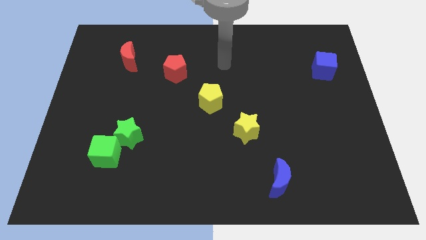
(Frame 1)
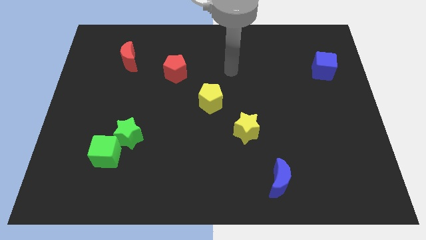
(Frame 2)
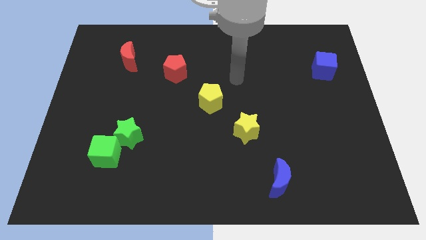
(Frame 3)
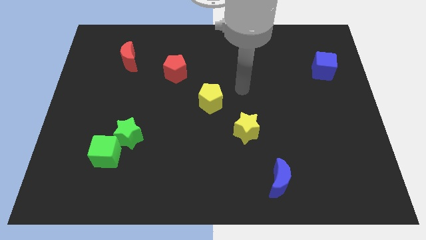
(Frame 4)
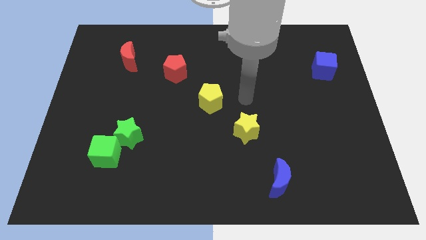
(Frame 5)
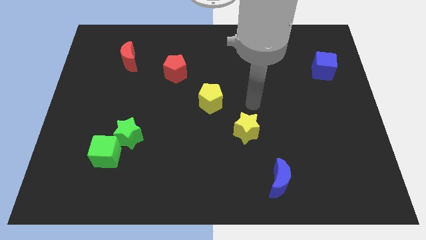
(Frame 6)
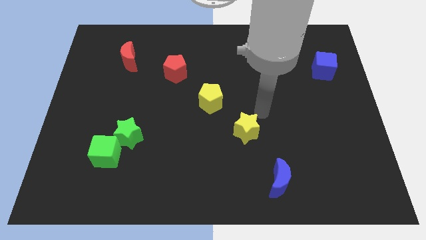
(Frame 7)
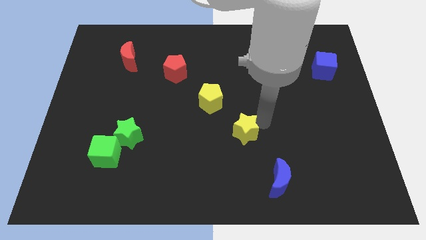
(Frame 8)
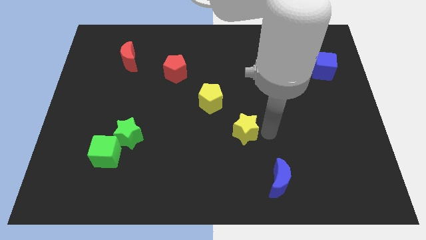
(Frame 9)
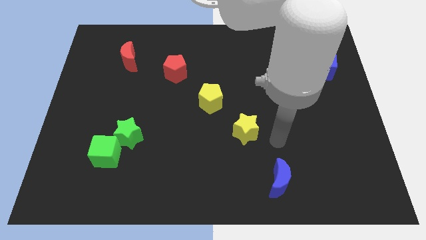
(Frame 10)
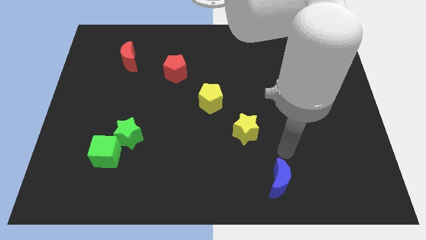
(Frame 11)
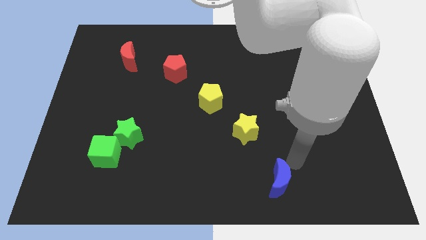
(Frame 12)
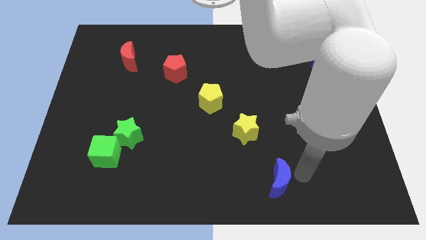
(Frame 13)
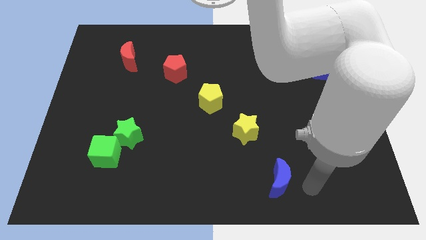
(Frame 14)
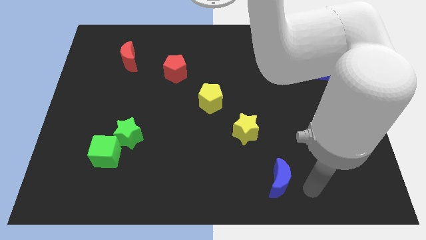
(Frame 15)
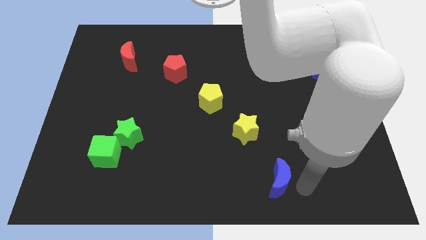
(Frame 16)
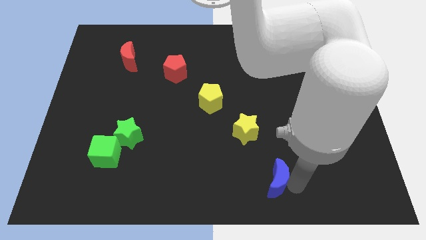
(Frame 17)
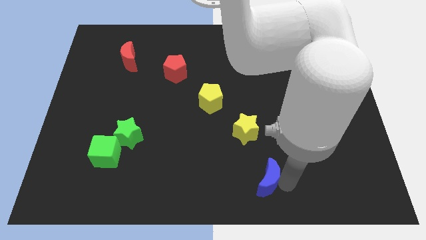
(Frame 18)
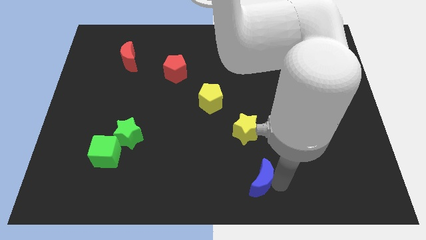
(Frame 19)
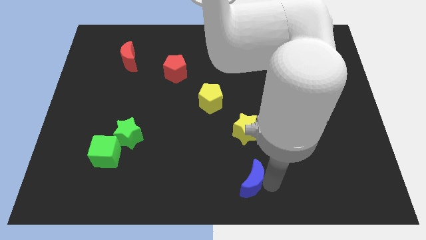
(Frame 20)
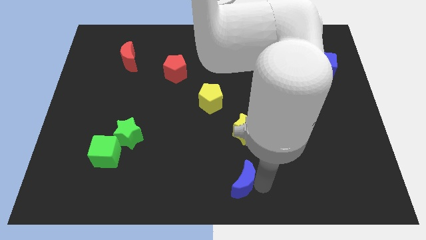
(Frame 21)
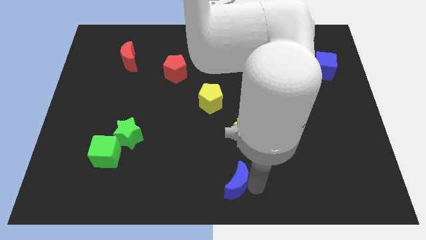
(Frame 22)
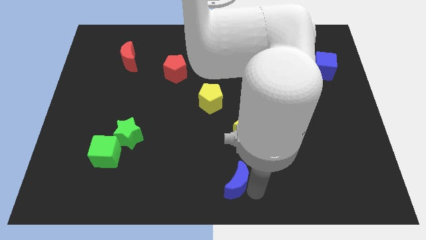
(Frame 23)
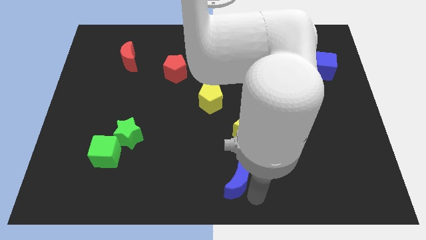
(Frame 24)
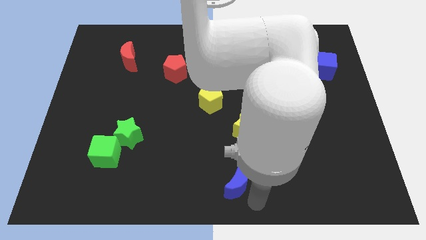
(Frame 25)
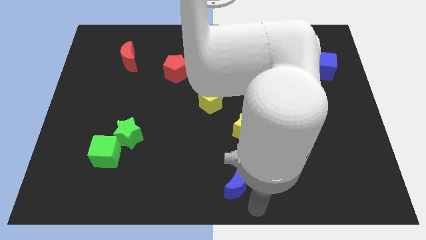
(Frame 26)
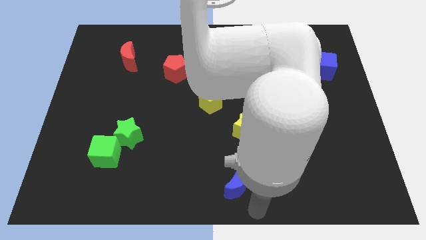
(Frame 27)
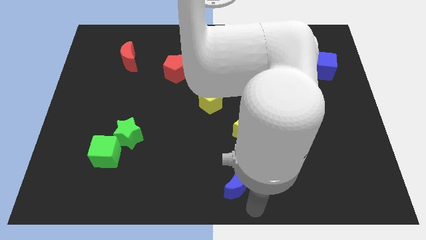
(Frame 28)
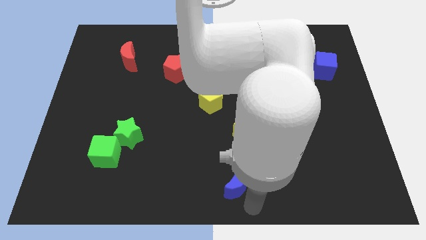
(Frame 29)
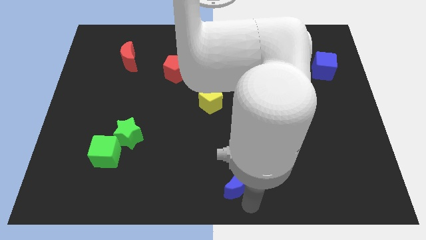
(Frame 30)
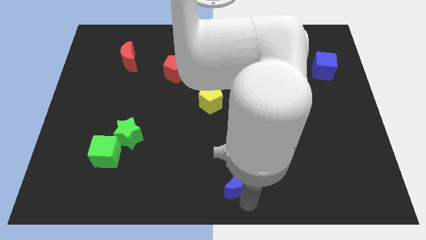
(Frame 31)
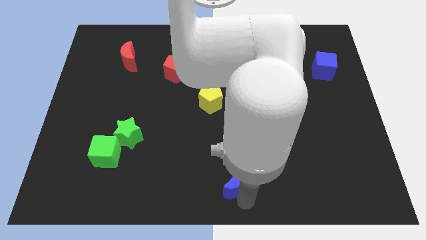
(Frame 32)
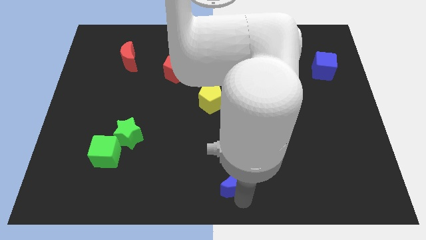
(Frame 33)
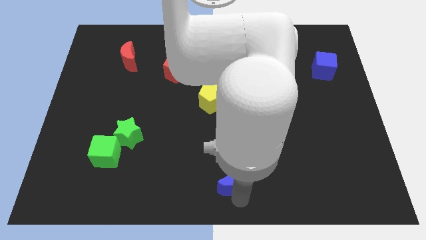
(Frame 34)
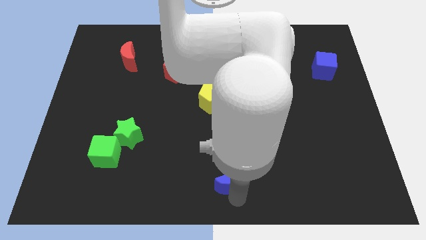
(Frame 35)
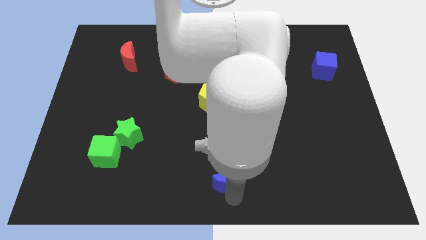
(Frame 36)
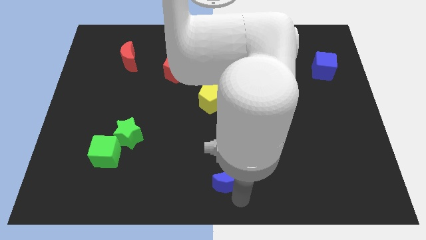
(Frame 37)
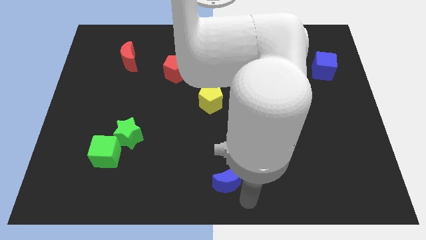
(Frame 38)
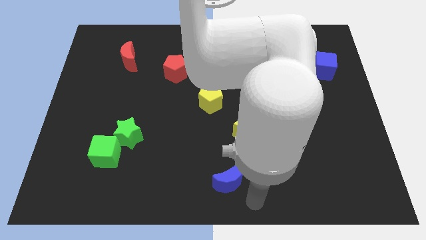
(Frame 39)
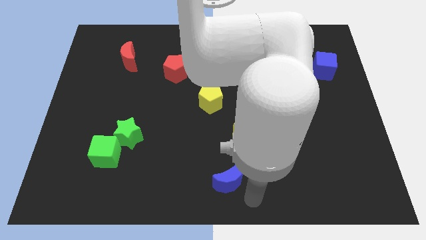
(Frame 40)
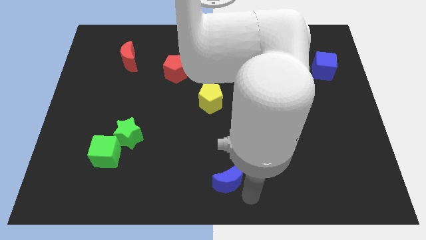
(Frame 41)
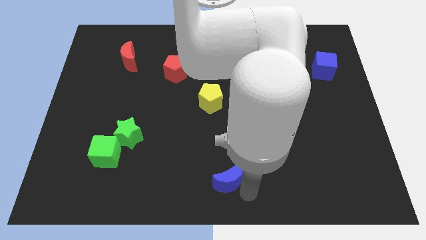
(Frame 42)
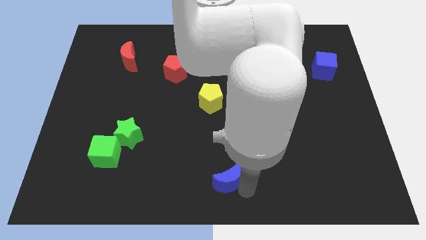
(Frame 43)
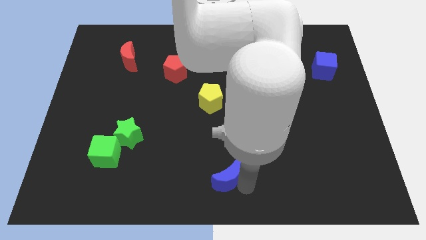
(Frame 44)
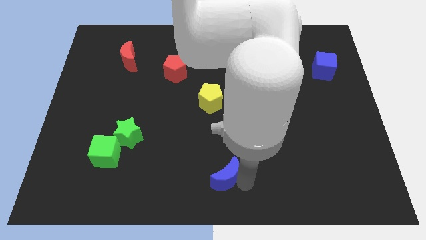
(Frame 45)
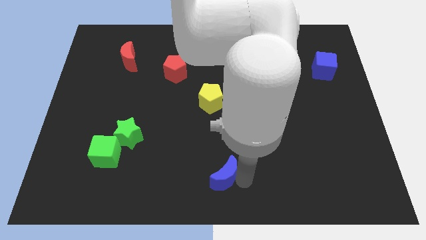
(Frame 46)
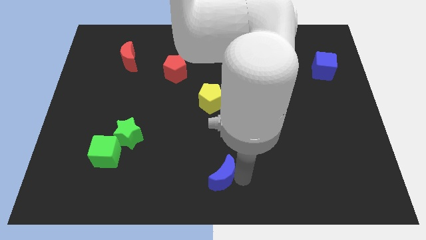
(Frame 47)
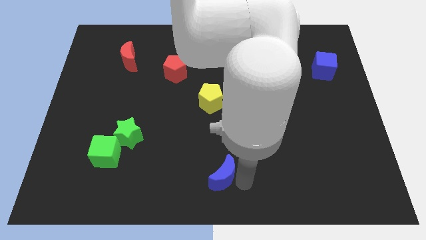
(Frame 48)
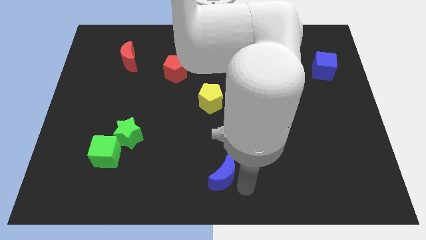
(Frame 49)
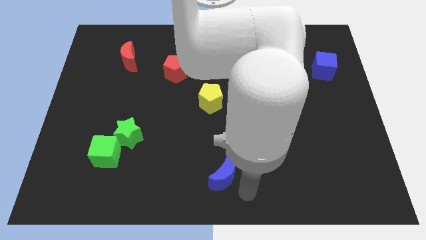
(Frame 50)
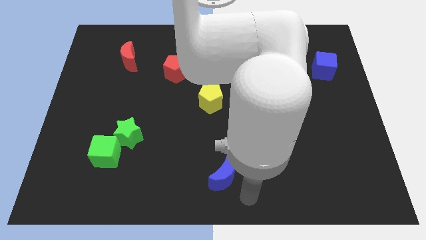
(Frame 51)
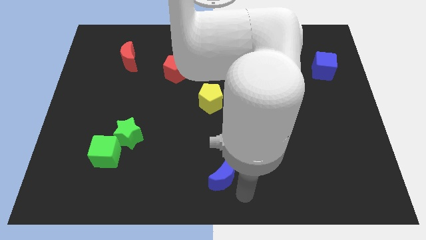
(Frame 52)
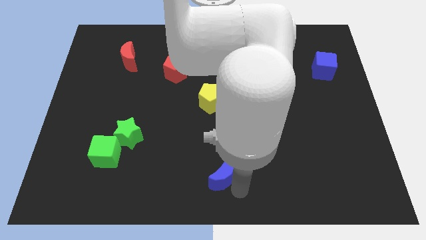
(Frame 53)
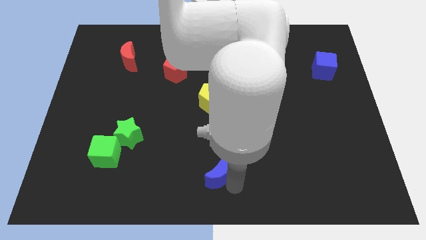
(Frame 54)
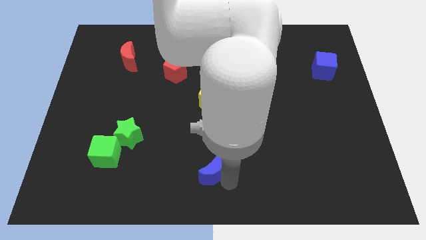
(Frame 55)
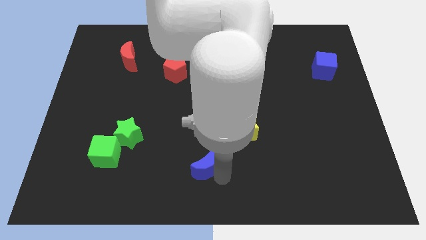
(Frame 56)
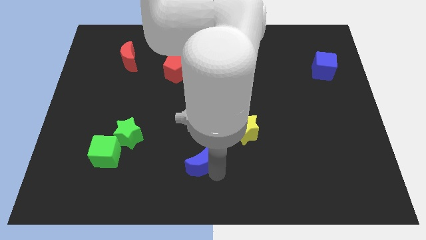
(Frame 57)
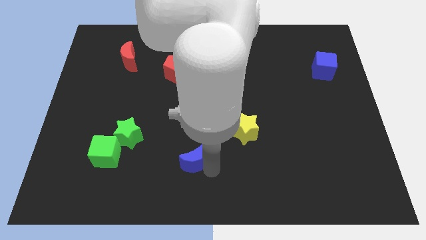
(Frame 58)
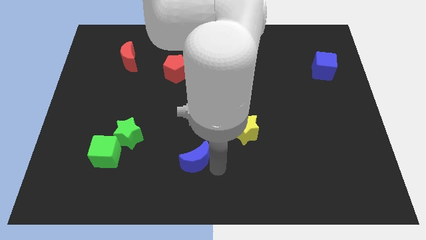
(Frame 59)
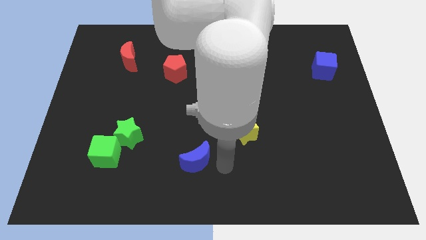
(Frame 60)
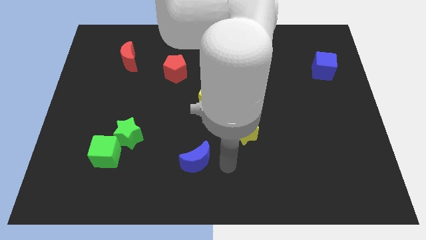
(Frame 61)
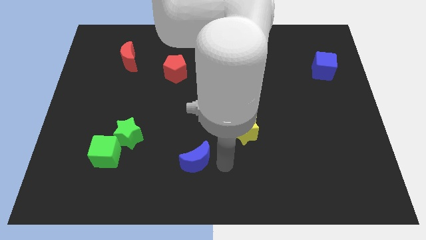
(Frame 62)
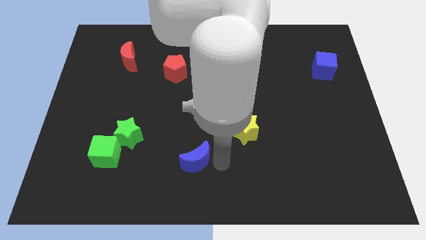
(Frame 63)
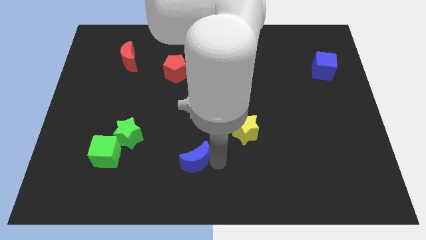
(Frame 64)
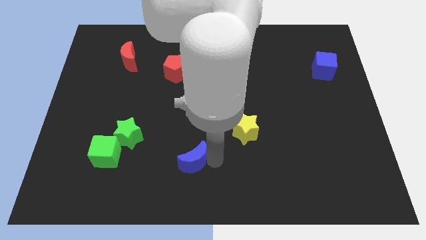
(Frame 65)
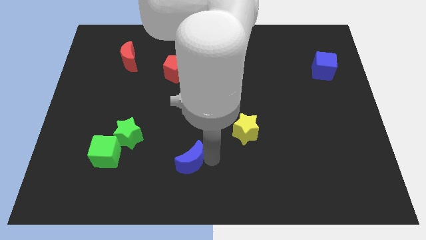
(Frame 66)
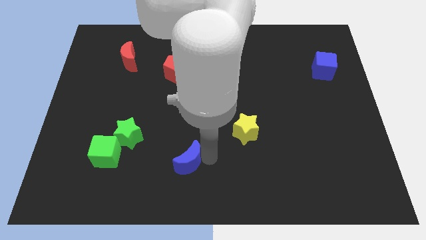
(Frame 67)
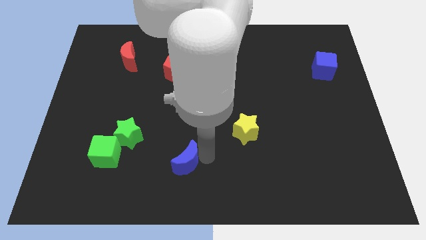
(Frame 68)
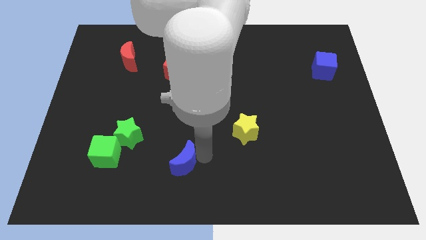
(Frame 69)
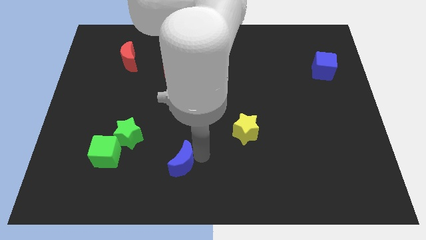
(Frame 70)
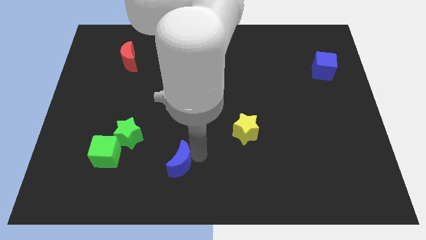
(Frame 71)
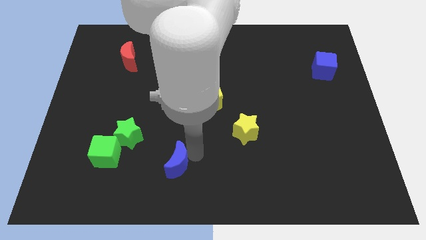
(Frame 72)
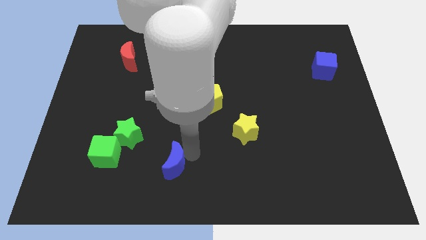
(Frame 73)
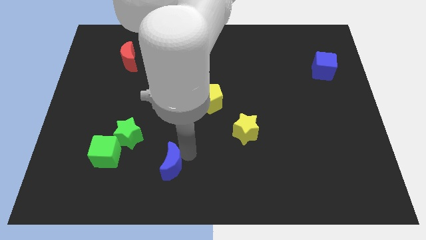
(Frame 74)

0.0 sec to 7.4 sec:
push the blue moon to the bottom right of the green star
